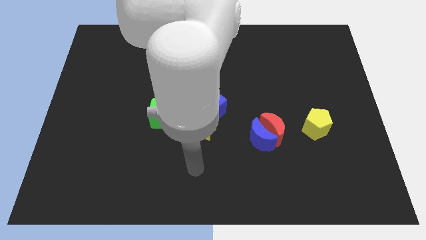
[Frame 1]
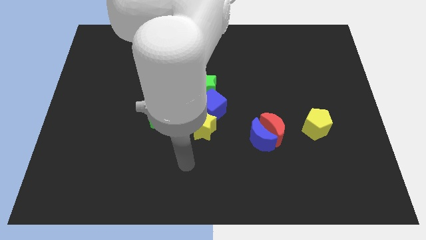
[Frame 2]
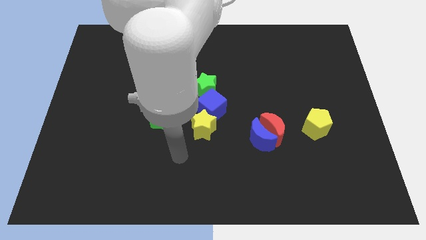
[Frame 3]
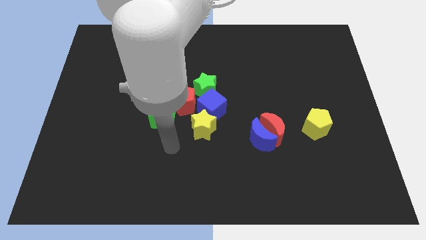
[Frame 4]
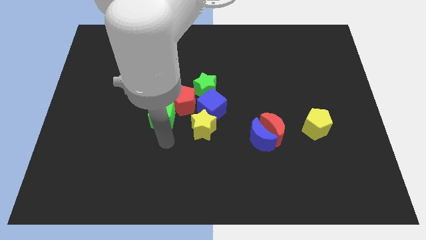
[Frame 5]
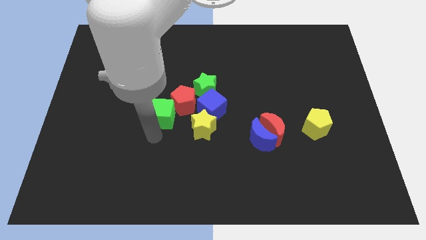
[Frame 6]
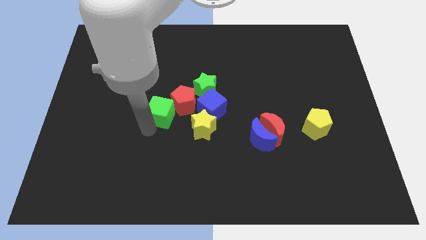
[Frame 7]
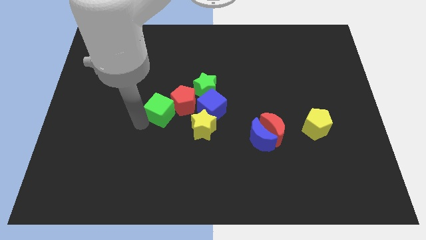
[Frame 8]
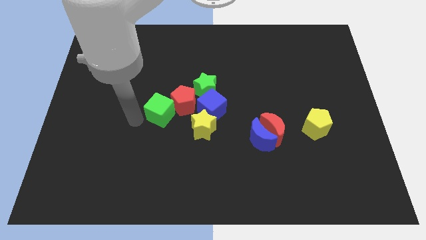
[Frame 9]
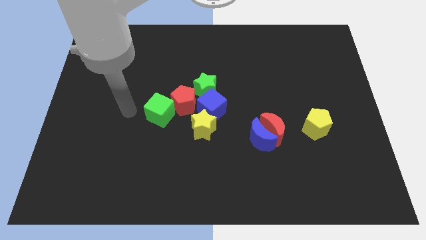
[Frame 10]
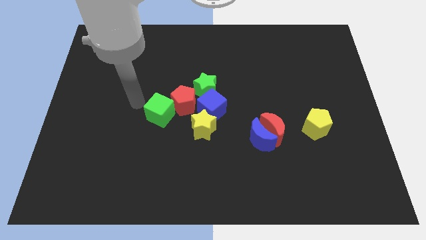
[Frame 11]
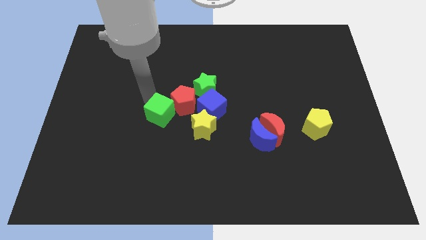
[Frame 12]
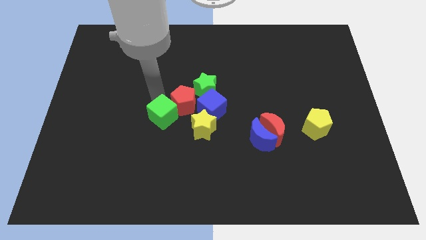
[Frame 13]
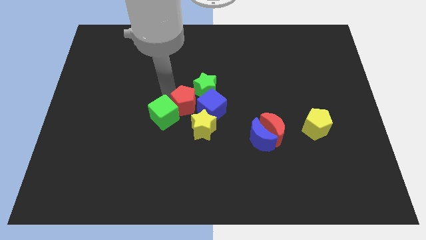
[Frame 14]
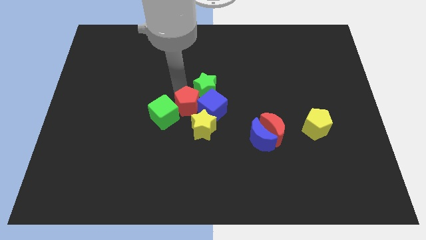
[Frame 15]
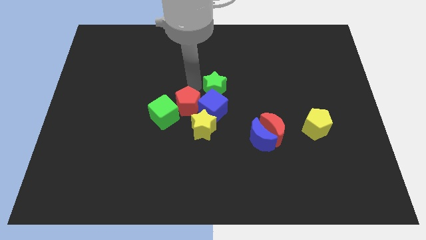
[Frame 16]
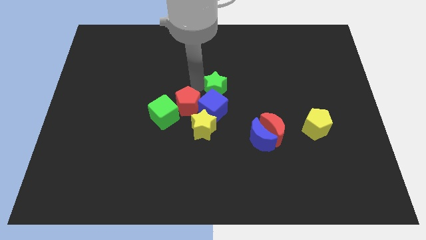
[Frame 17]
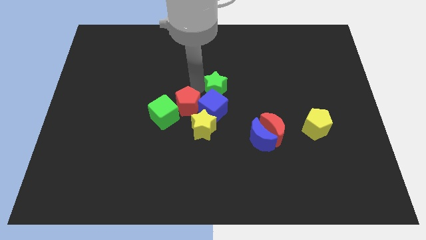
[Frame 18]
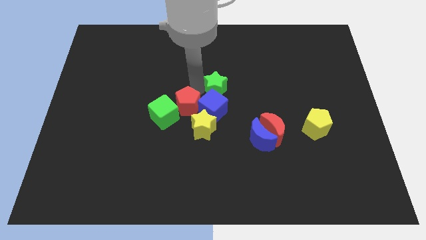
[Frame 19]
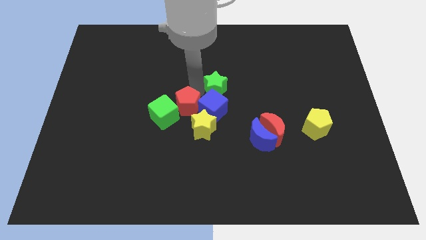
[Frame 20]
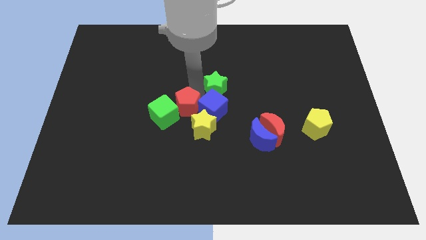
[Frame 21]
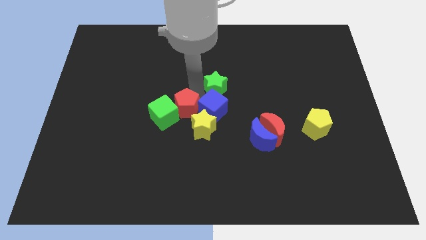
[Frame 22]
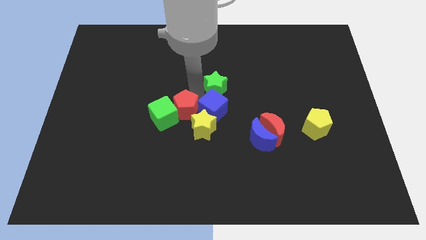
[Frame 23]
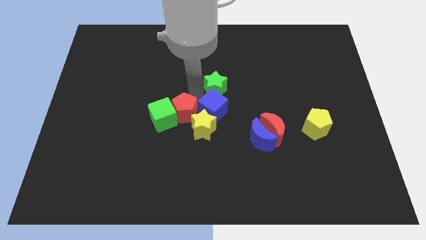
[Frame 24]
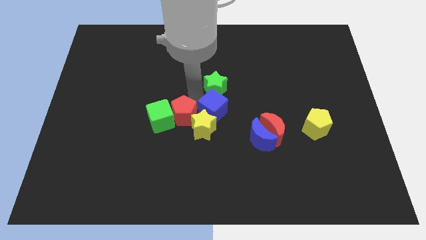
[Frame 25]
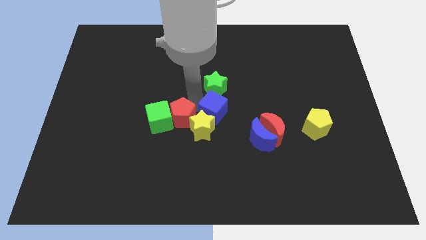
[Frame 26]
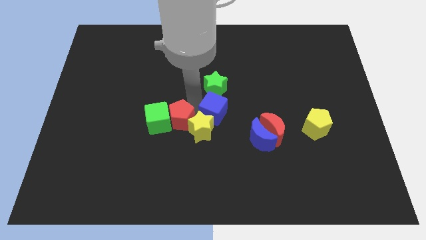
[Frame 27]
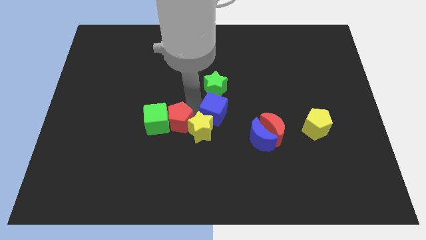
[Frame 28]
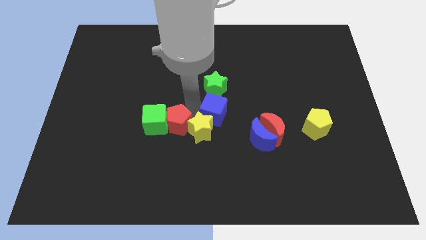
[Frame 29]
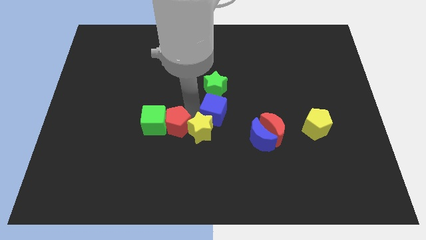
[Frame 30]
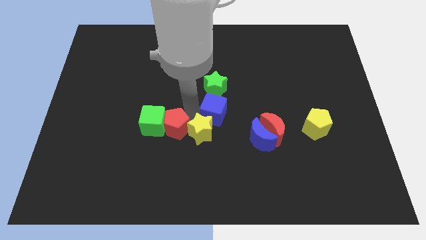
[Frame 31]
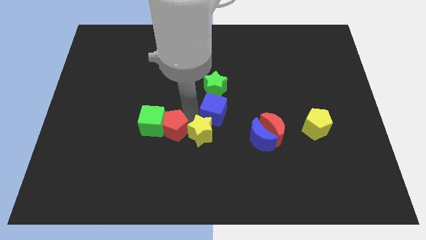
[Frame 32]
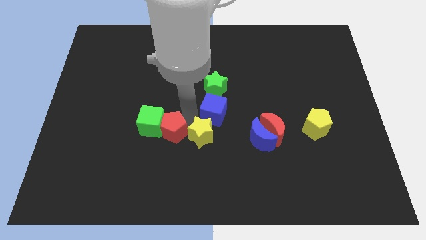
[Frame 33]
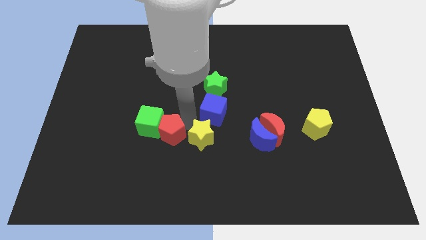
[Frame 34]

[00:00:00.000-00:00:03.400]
slide the red pentagon down and then to the left a bit

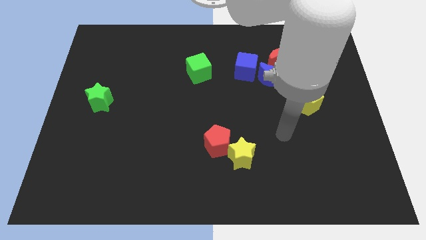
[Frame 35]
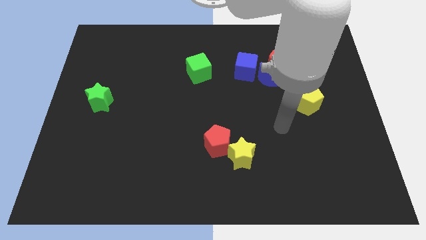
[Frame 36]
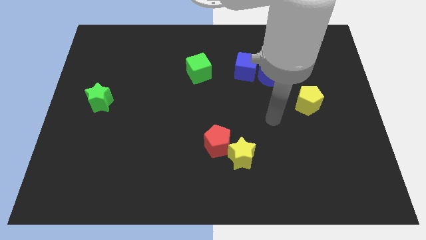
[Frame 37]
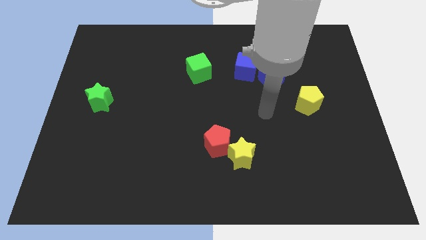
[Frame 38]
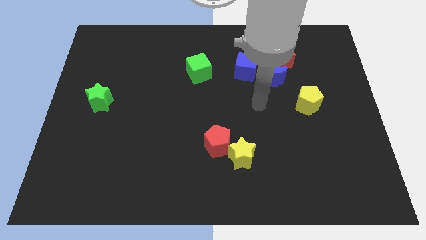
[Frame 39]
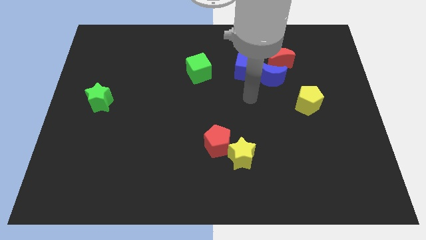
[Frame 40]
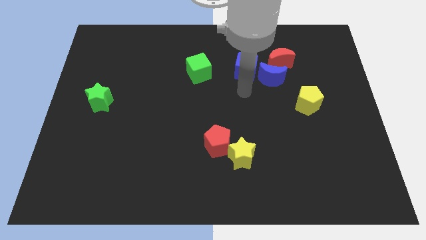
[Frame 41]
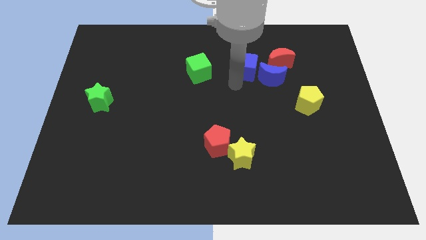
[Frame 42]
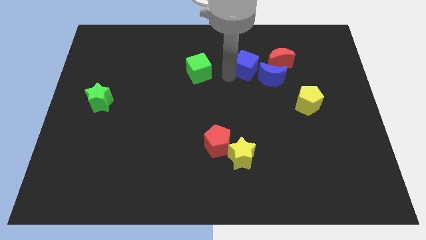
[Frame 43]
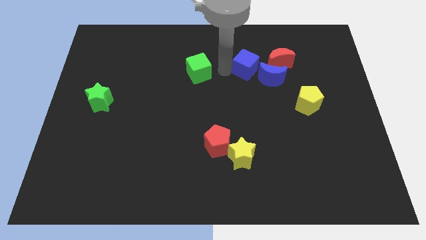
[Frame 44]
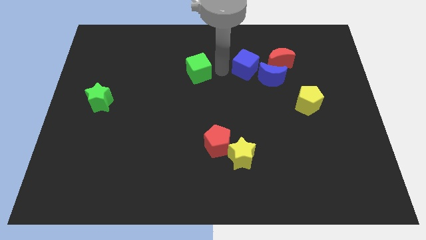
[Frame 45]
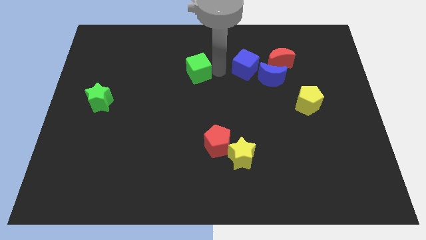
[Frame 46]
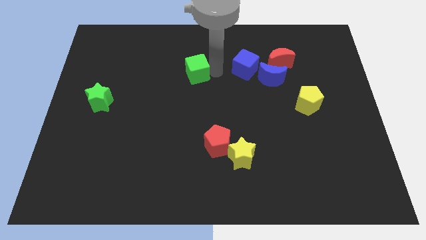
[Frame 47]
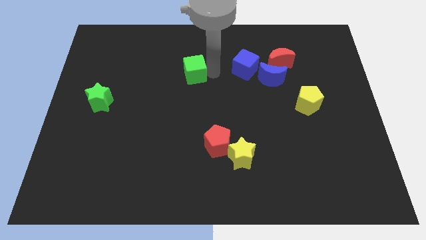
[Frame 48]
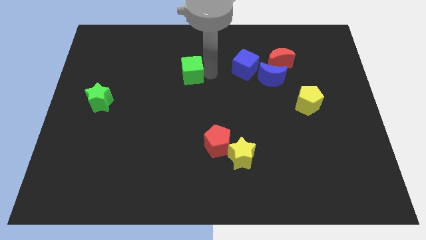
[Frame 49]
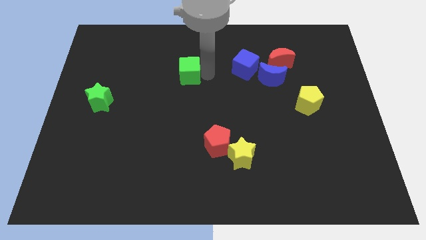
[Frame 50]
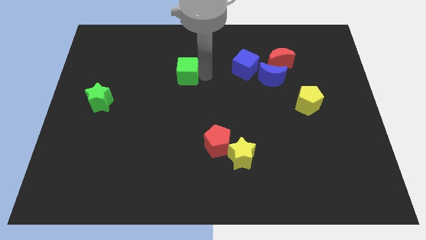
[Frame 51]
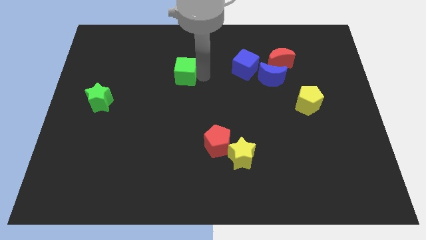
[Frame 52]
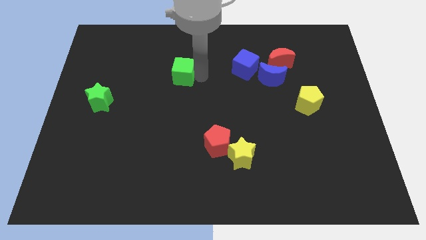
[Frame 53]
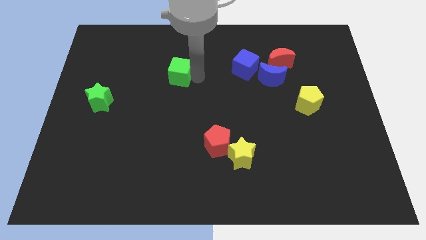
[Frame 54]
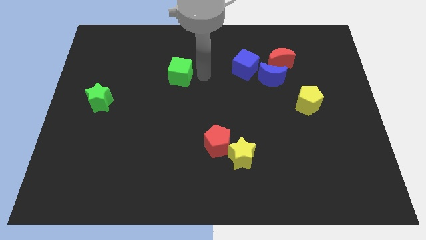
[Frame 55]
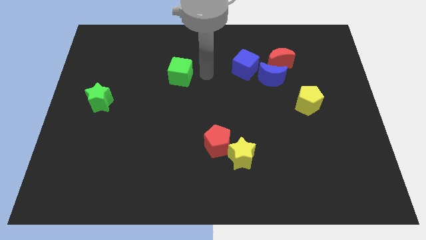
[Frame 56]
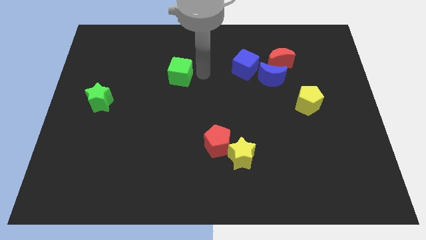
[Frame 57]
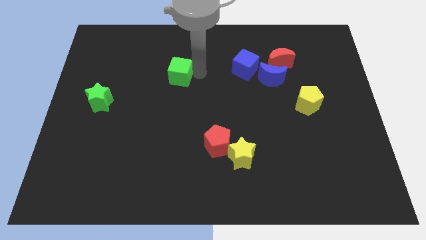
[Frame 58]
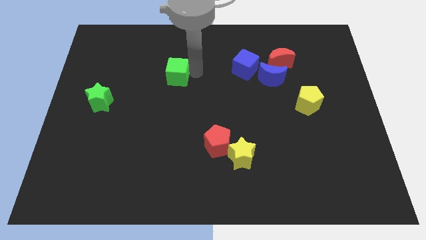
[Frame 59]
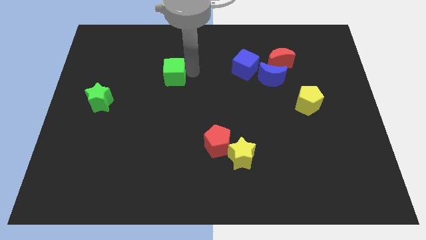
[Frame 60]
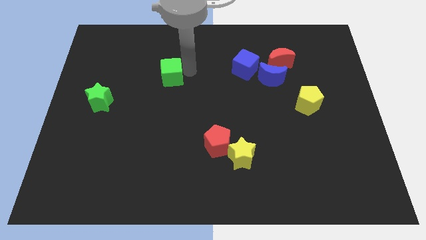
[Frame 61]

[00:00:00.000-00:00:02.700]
slide the green cube to the left a little

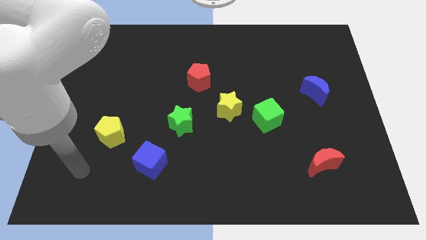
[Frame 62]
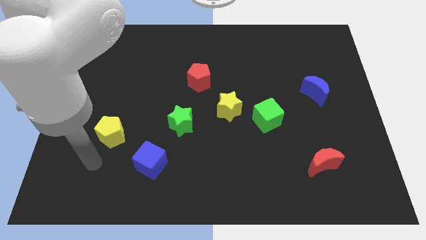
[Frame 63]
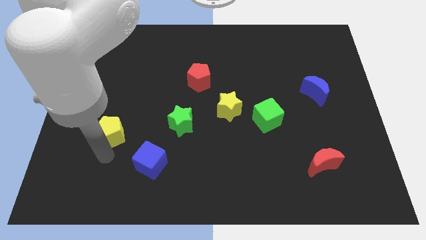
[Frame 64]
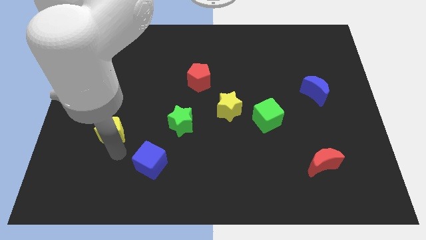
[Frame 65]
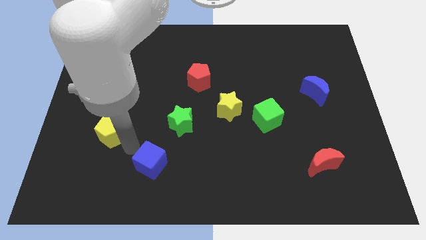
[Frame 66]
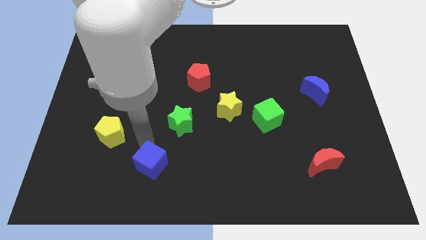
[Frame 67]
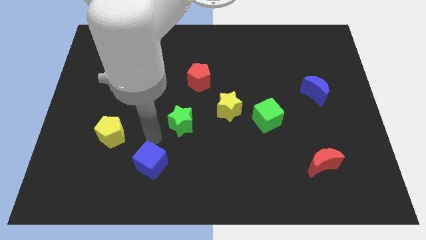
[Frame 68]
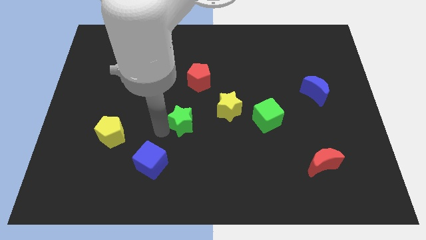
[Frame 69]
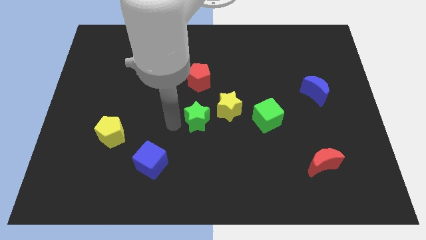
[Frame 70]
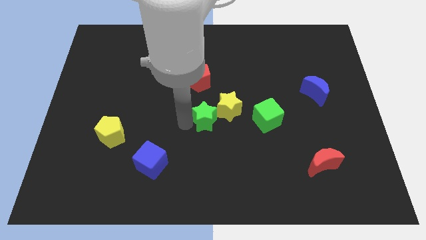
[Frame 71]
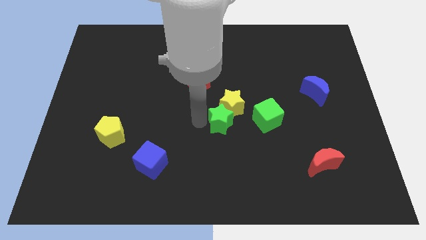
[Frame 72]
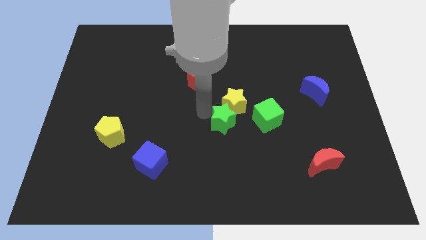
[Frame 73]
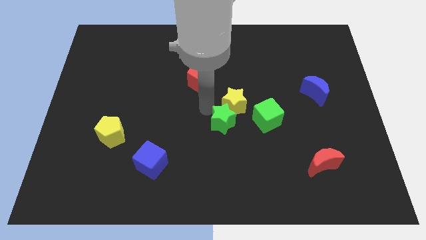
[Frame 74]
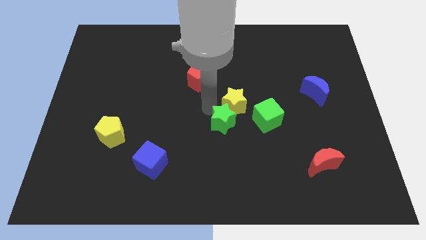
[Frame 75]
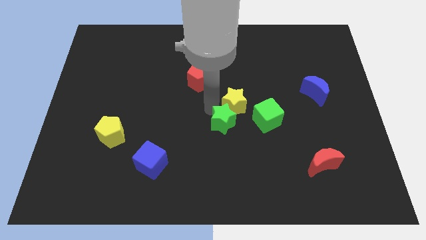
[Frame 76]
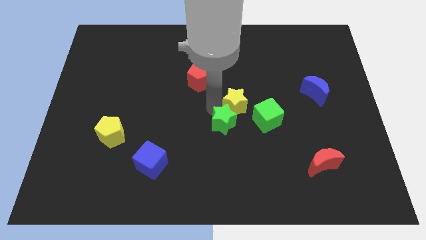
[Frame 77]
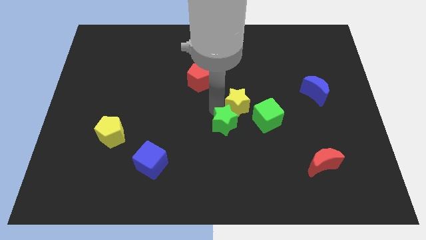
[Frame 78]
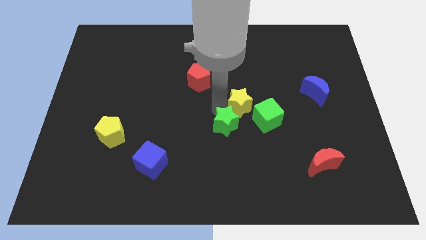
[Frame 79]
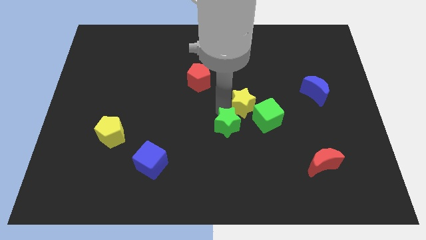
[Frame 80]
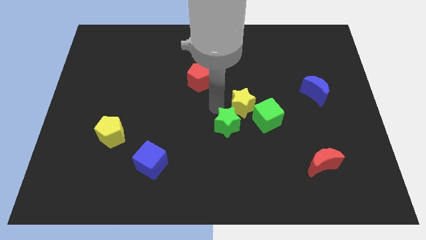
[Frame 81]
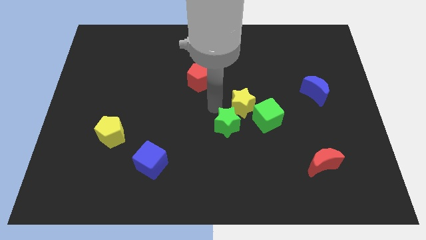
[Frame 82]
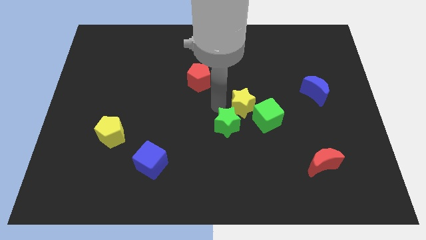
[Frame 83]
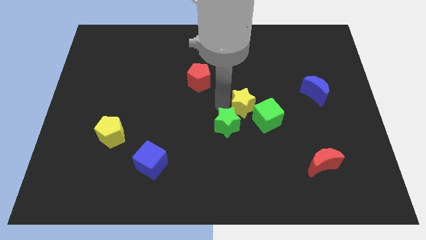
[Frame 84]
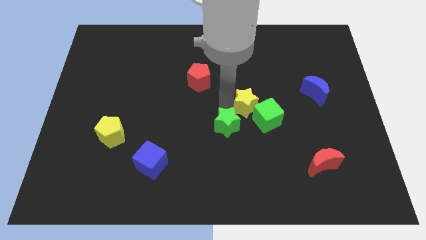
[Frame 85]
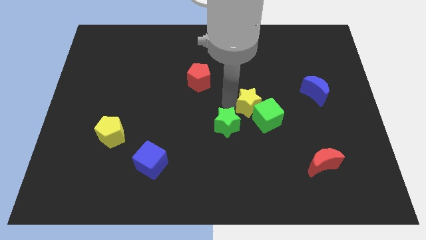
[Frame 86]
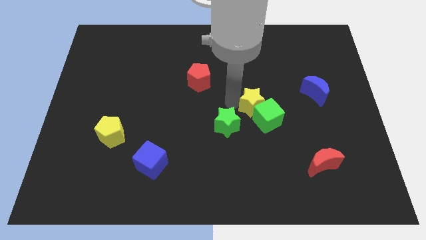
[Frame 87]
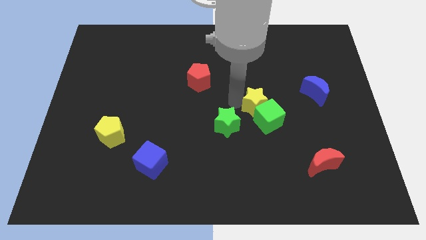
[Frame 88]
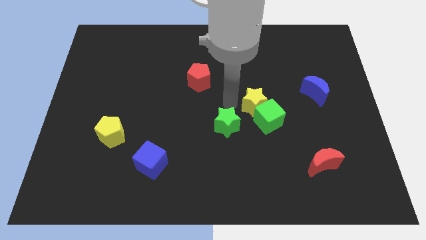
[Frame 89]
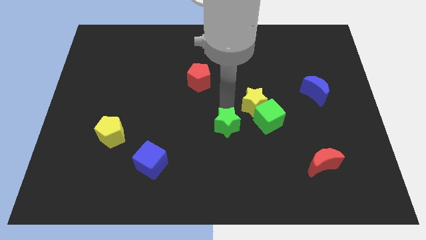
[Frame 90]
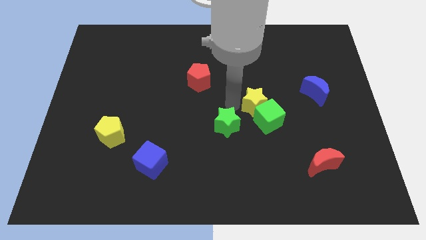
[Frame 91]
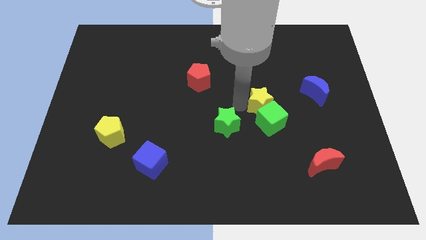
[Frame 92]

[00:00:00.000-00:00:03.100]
push the yellow star slightly to the right
